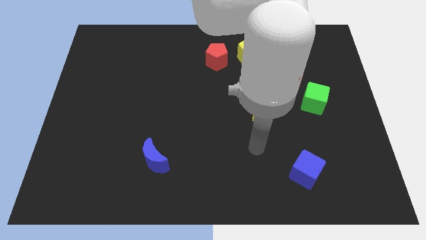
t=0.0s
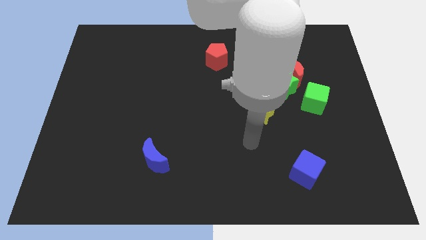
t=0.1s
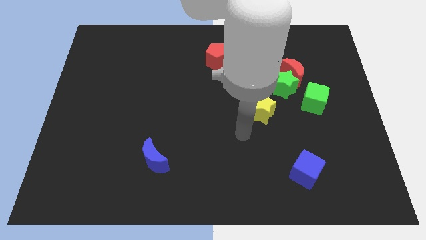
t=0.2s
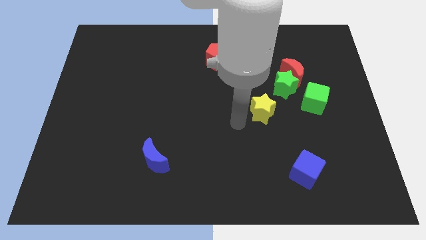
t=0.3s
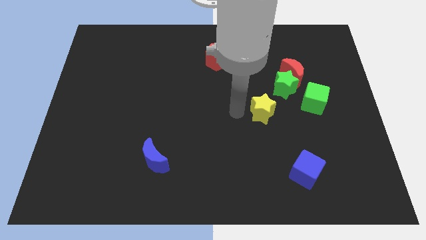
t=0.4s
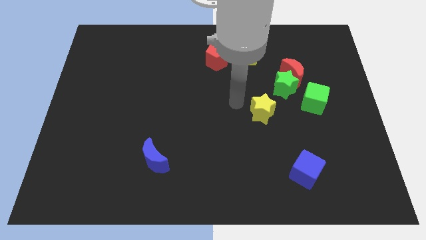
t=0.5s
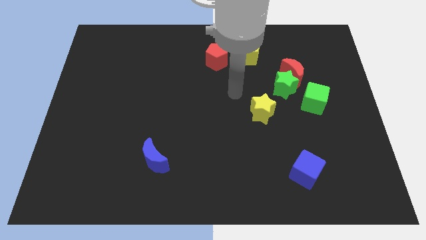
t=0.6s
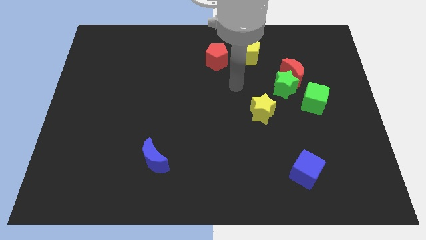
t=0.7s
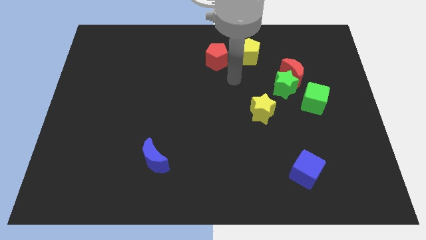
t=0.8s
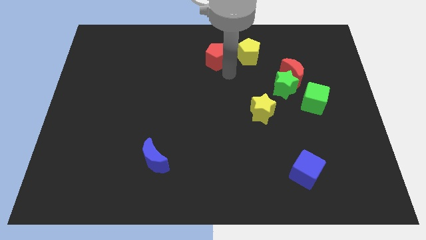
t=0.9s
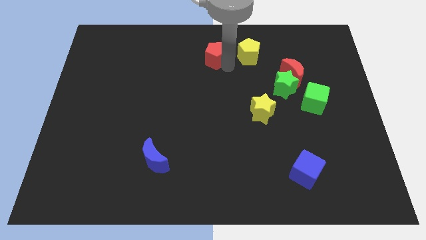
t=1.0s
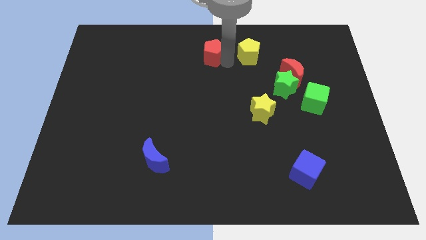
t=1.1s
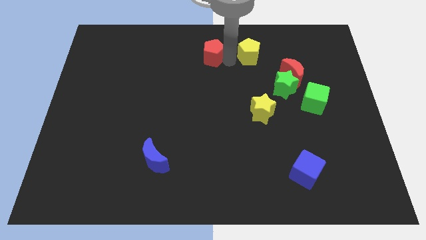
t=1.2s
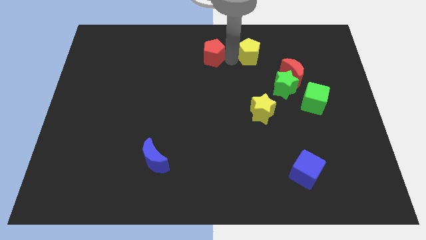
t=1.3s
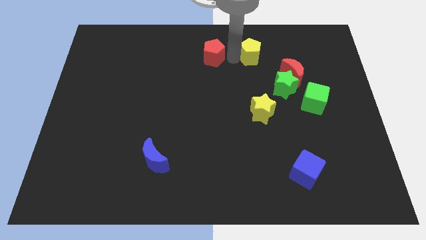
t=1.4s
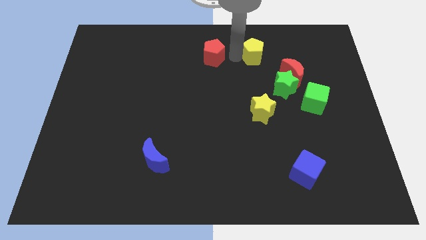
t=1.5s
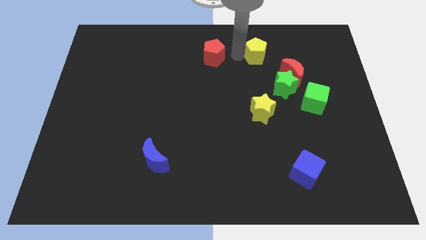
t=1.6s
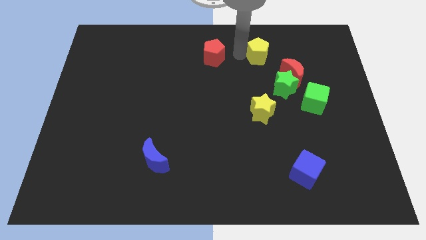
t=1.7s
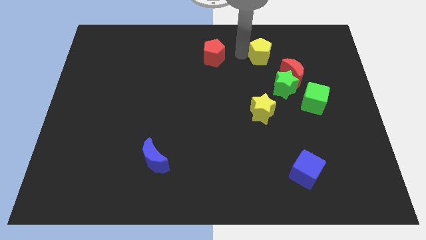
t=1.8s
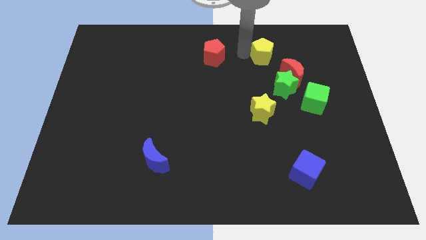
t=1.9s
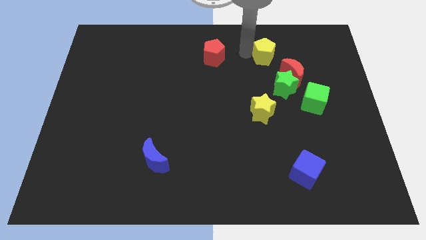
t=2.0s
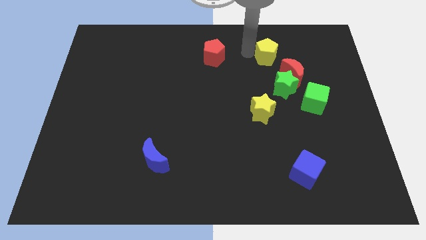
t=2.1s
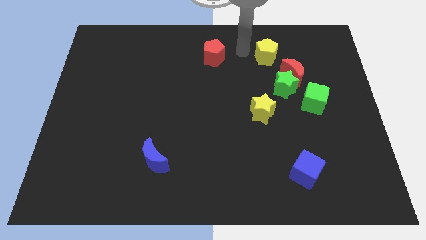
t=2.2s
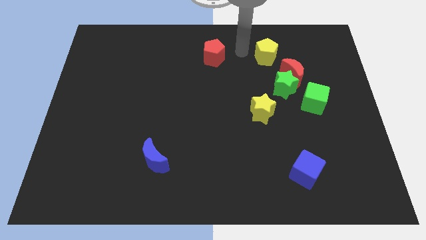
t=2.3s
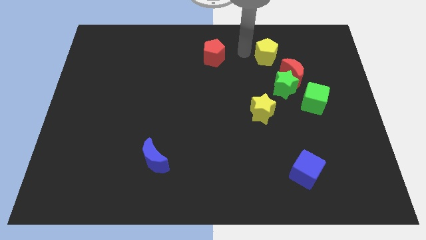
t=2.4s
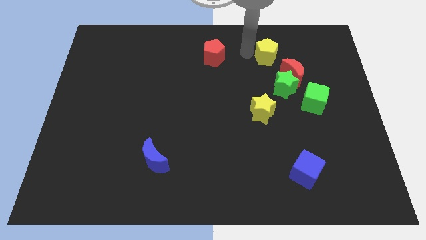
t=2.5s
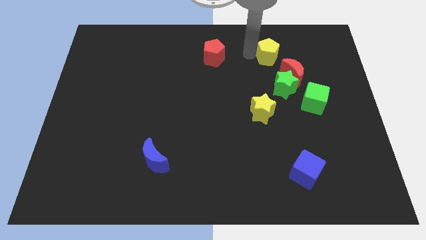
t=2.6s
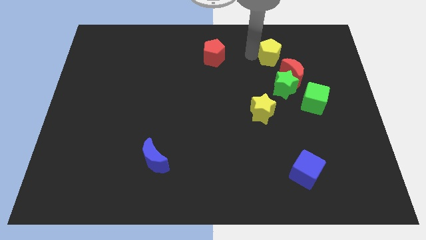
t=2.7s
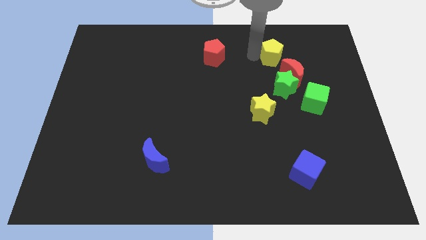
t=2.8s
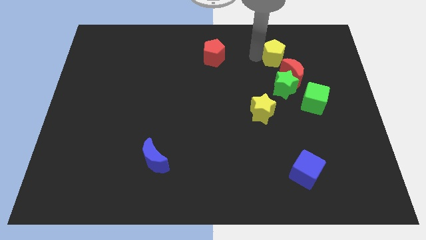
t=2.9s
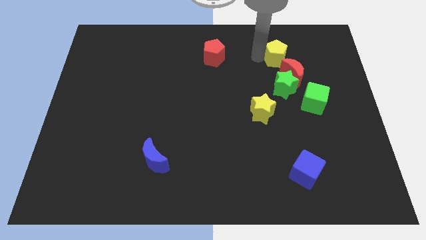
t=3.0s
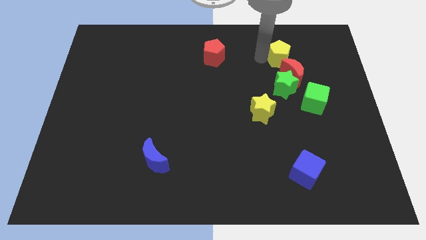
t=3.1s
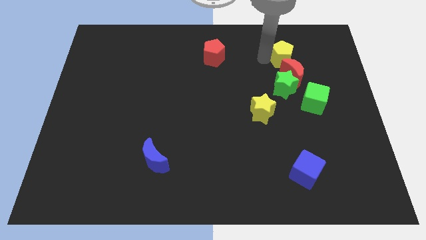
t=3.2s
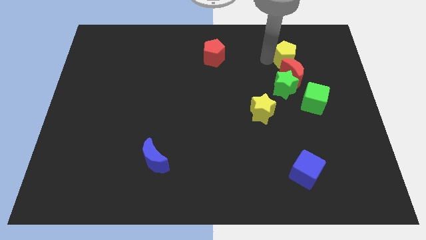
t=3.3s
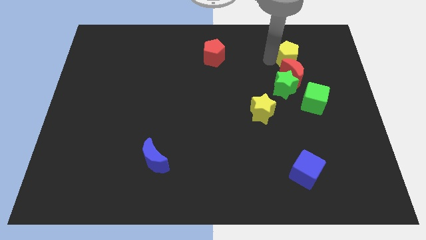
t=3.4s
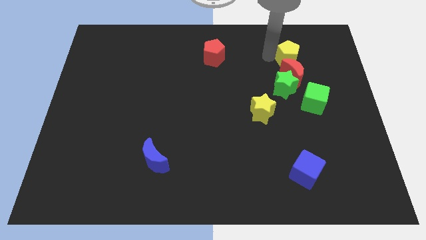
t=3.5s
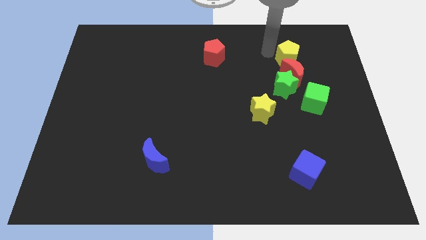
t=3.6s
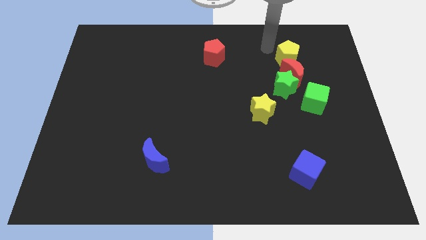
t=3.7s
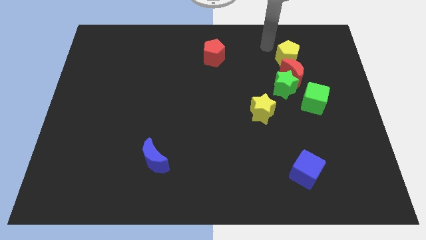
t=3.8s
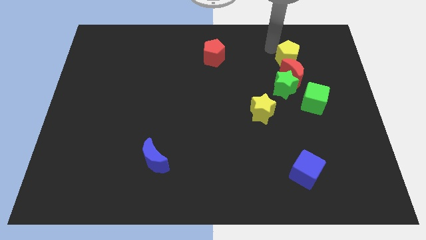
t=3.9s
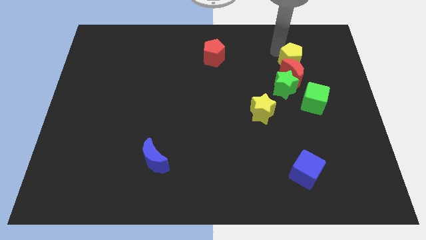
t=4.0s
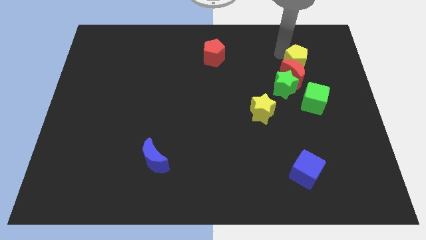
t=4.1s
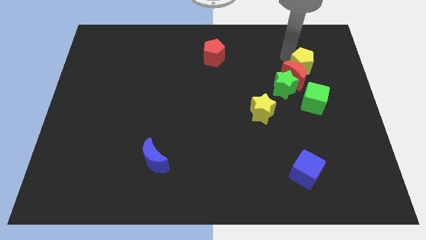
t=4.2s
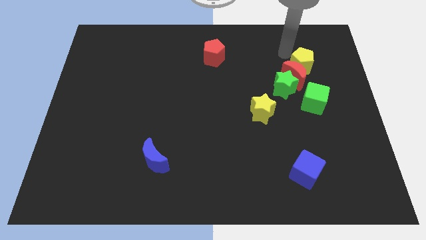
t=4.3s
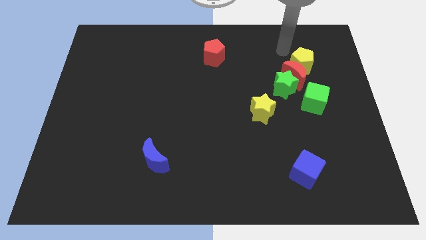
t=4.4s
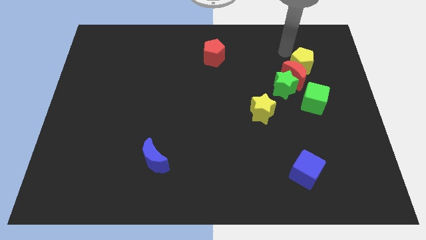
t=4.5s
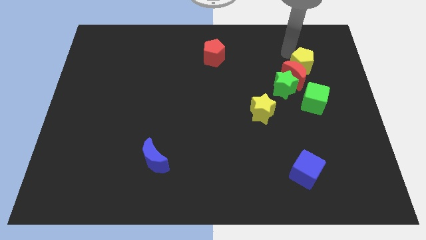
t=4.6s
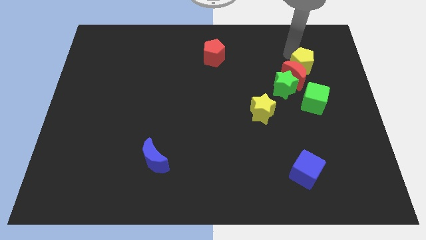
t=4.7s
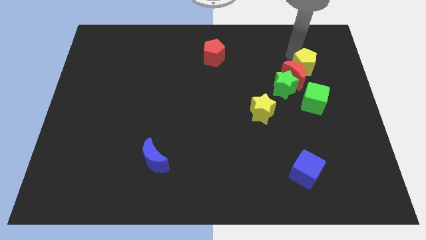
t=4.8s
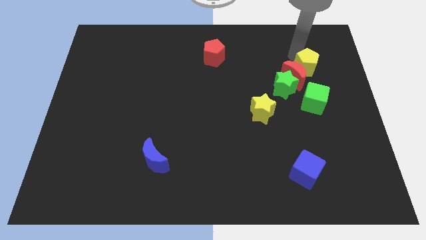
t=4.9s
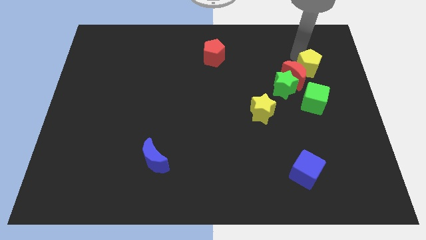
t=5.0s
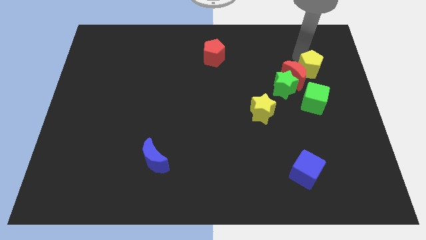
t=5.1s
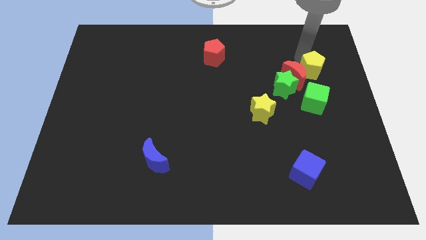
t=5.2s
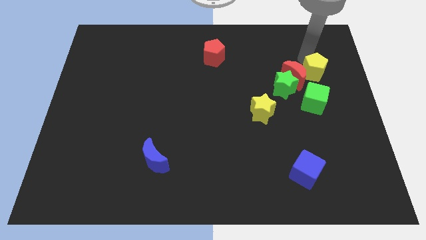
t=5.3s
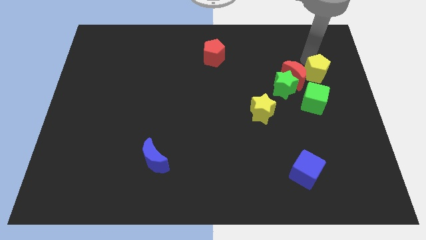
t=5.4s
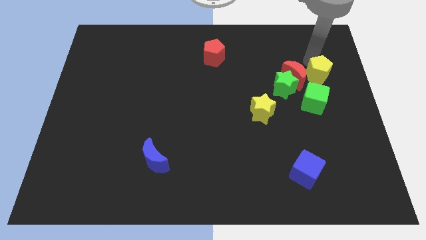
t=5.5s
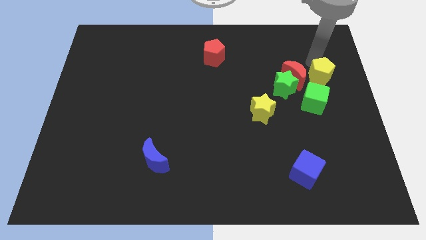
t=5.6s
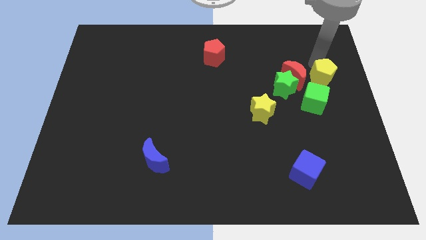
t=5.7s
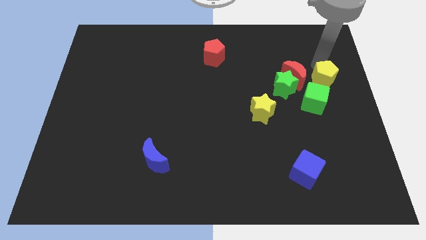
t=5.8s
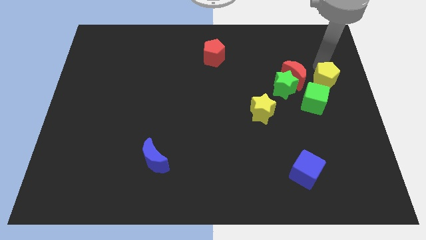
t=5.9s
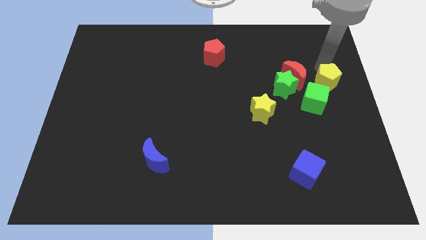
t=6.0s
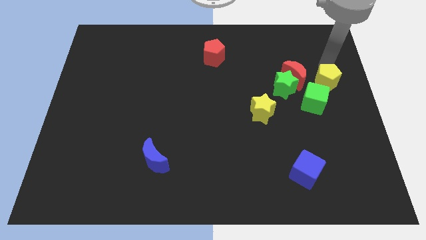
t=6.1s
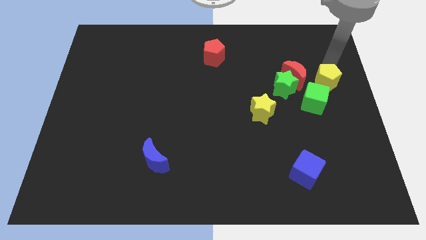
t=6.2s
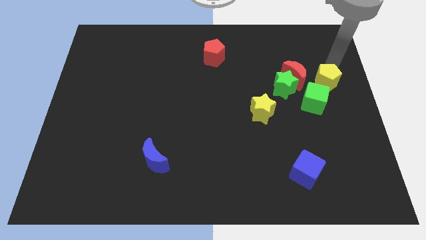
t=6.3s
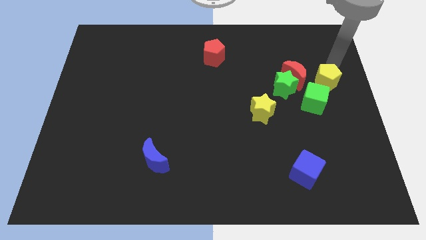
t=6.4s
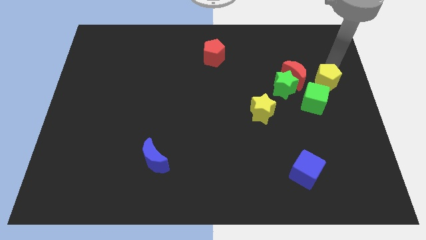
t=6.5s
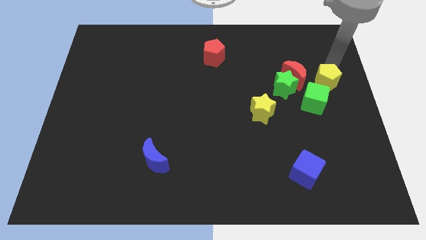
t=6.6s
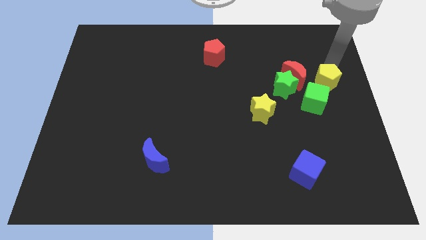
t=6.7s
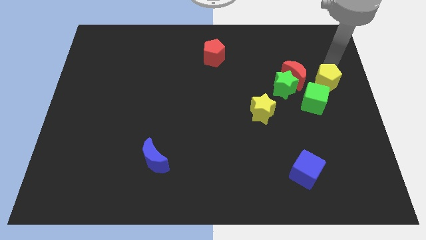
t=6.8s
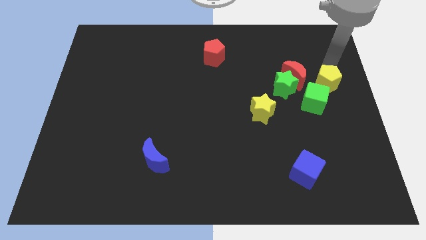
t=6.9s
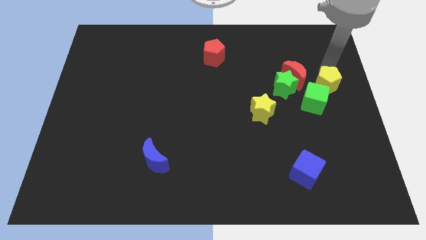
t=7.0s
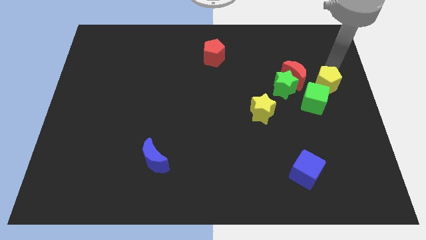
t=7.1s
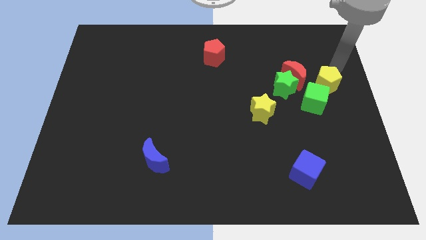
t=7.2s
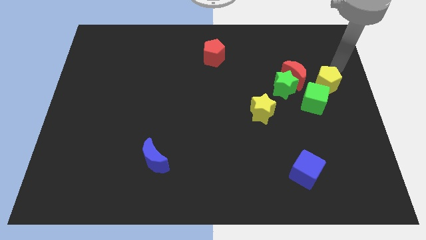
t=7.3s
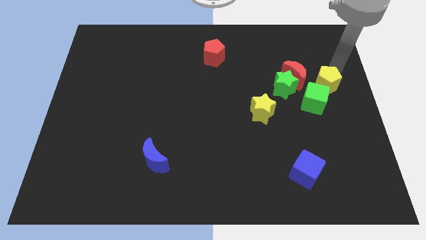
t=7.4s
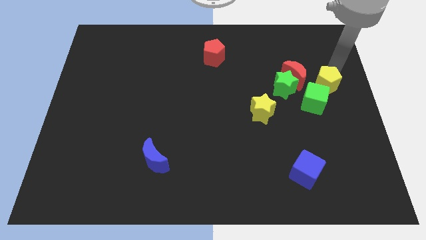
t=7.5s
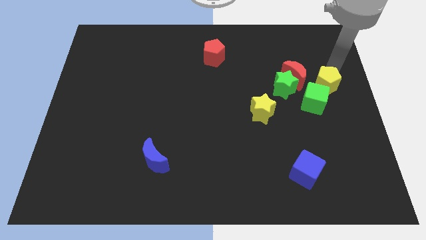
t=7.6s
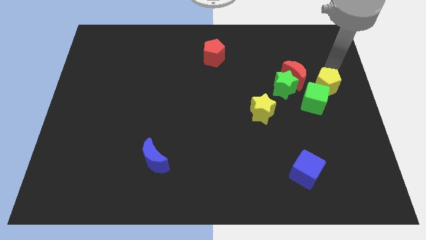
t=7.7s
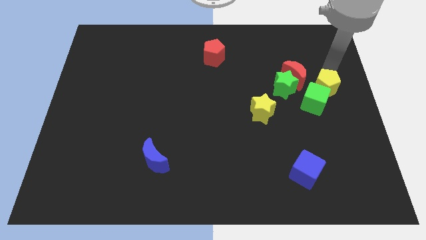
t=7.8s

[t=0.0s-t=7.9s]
push the yellow pentagon close to the green cube
